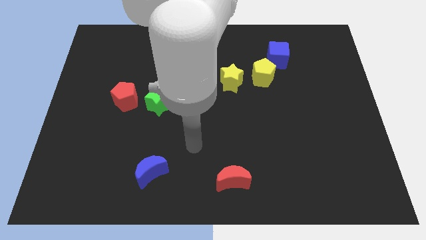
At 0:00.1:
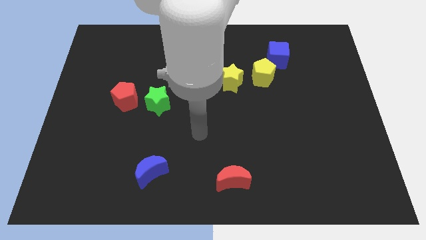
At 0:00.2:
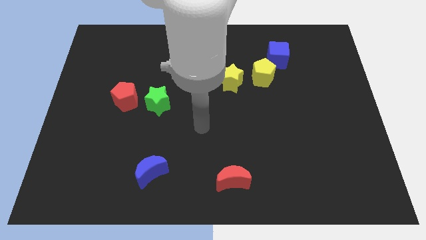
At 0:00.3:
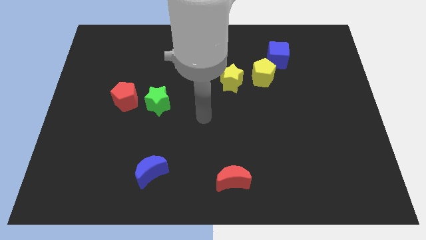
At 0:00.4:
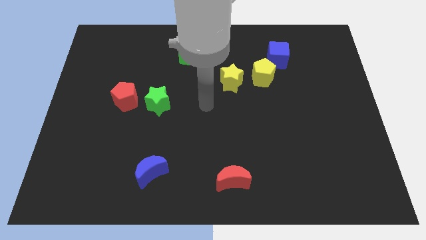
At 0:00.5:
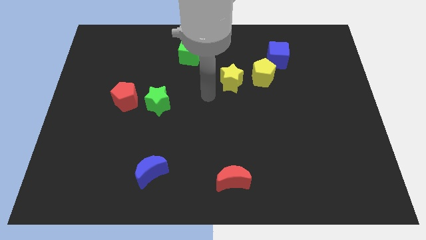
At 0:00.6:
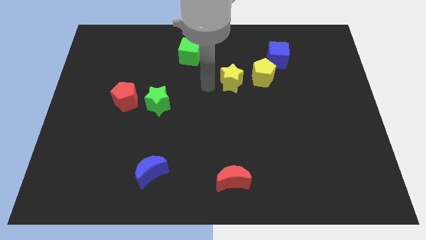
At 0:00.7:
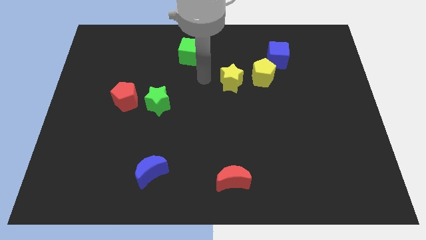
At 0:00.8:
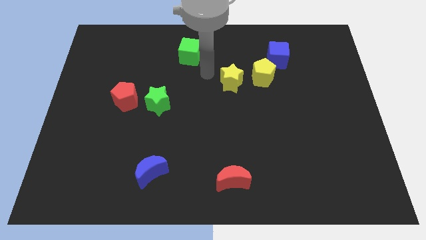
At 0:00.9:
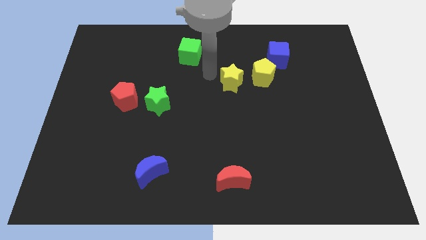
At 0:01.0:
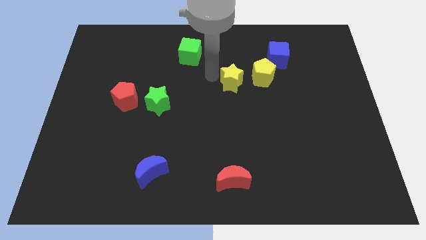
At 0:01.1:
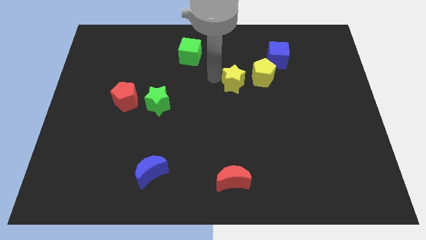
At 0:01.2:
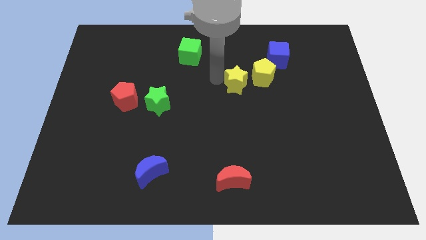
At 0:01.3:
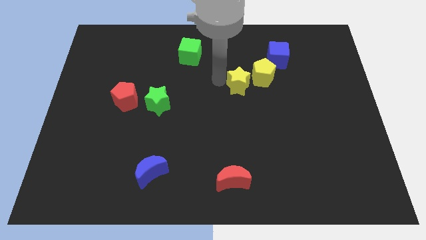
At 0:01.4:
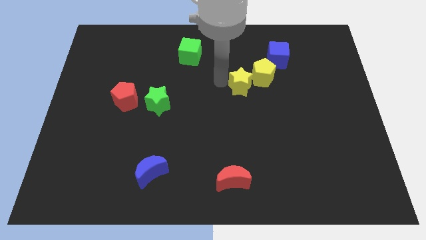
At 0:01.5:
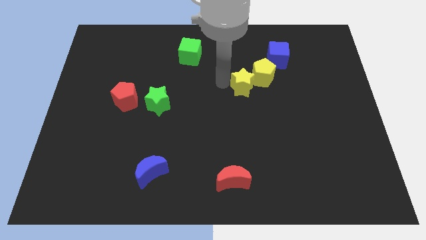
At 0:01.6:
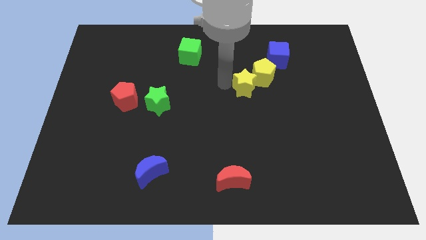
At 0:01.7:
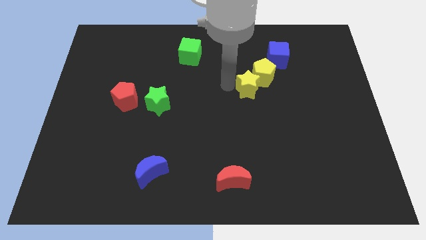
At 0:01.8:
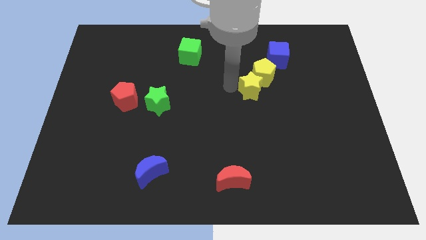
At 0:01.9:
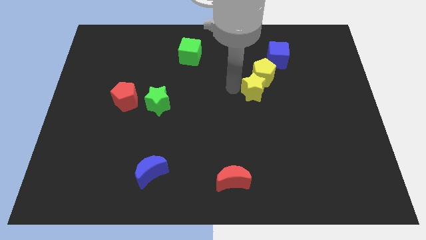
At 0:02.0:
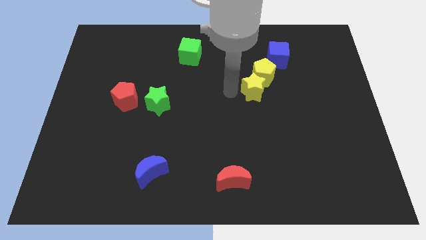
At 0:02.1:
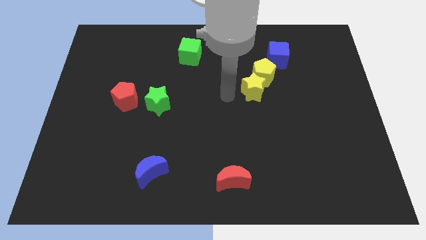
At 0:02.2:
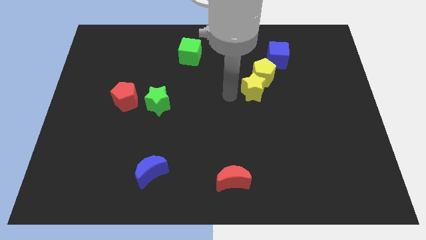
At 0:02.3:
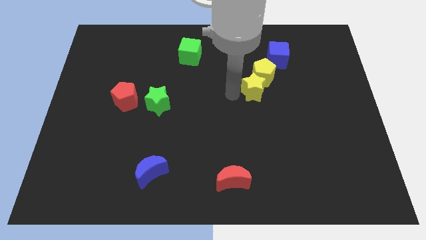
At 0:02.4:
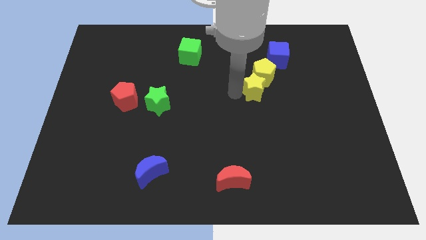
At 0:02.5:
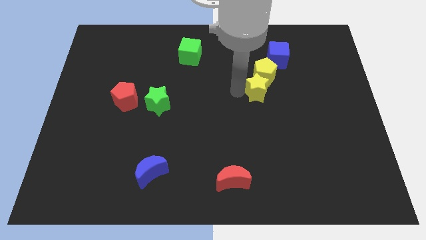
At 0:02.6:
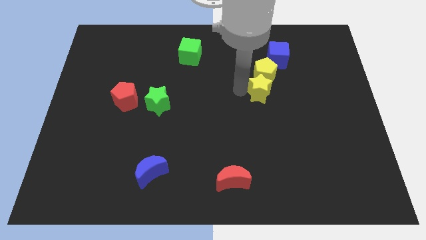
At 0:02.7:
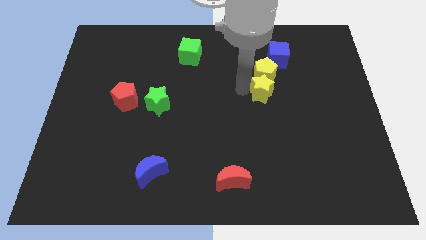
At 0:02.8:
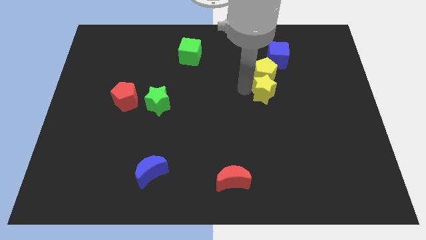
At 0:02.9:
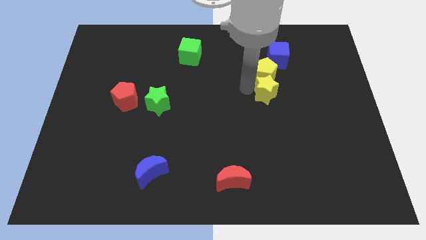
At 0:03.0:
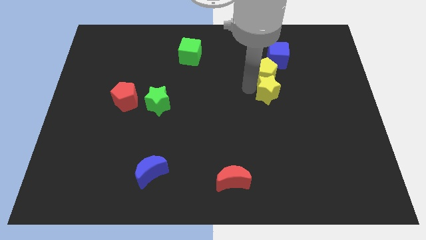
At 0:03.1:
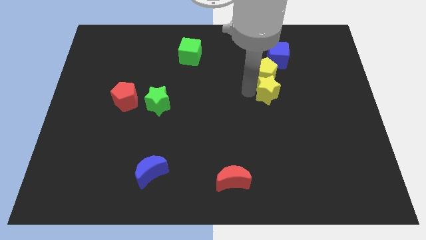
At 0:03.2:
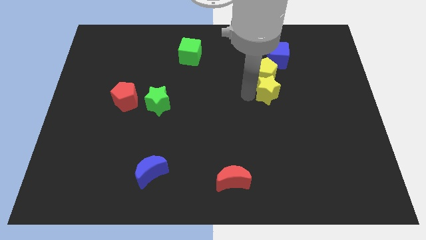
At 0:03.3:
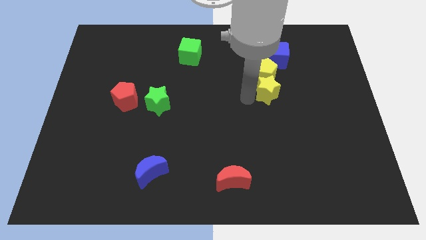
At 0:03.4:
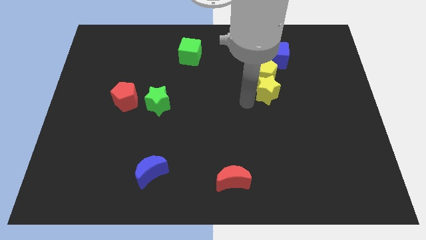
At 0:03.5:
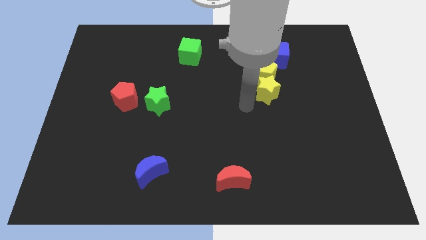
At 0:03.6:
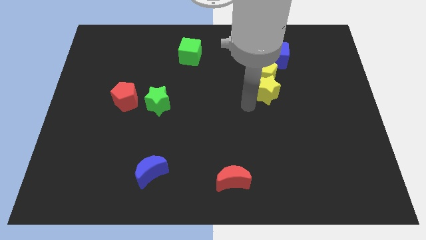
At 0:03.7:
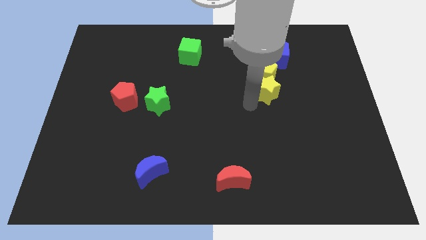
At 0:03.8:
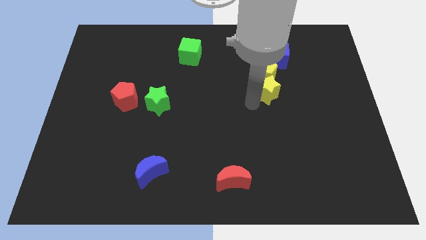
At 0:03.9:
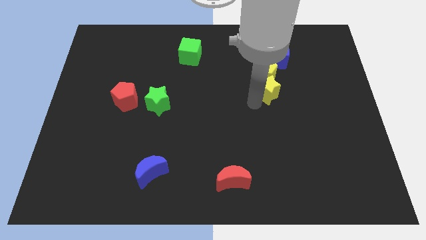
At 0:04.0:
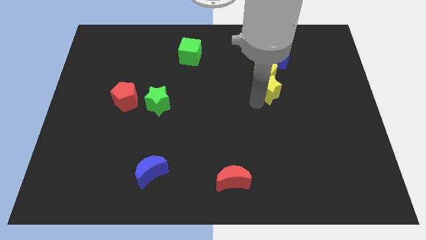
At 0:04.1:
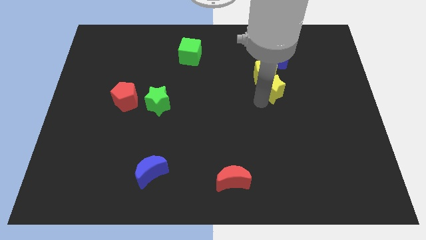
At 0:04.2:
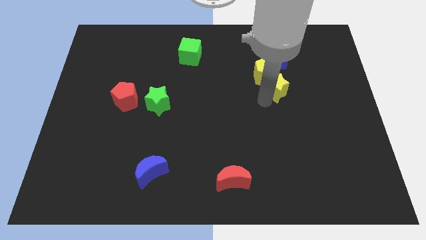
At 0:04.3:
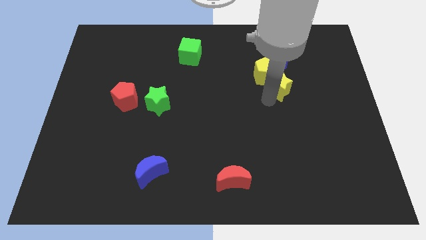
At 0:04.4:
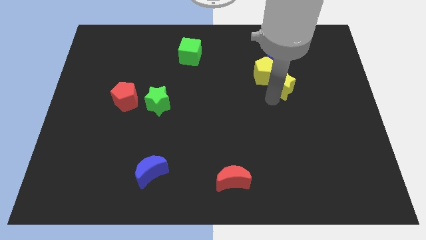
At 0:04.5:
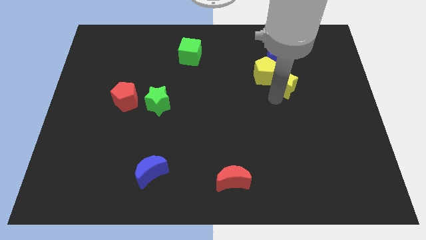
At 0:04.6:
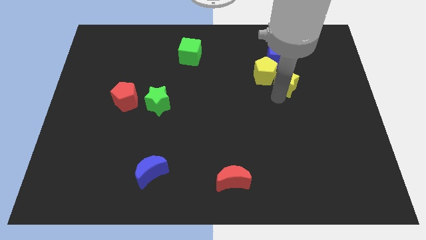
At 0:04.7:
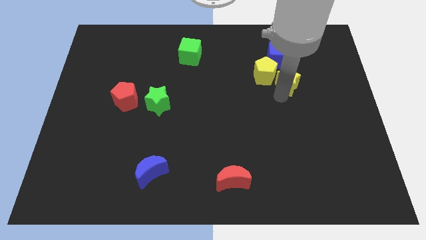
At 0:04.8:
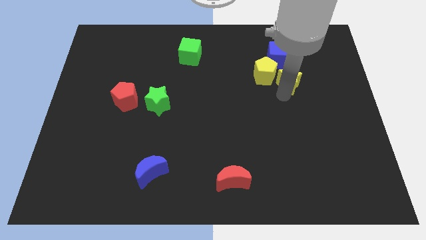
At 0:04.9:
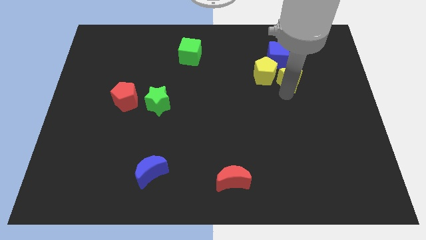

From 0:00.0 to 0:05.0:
move the yellow star to the bottom right side of the blue cube

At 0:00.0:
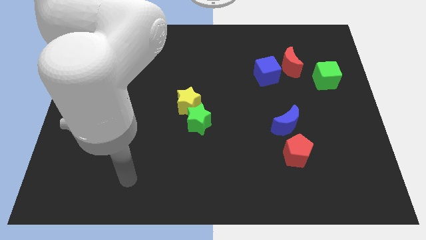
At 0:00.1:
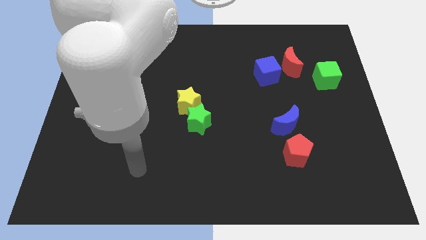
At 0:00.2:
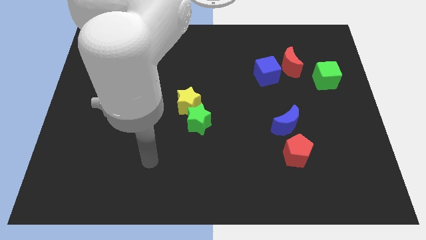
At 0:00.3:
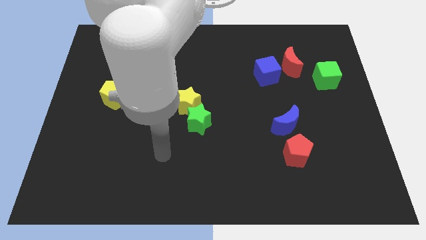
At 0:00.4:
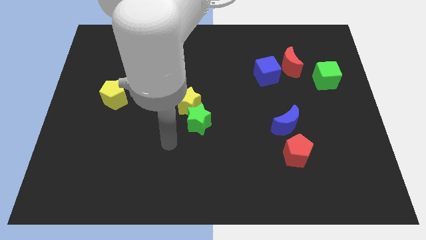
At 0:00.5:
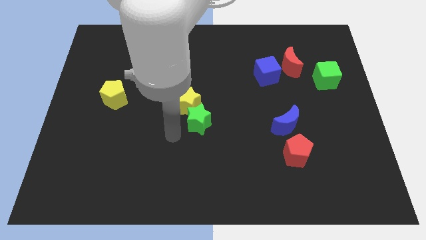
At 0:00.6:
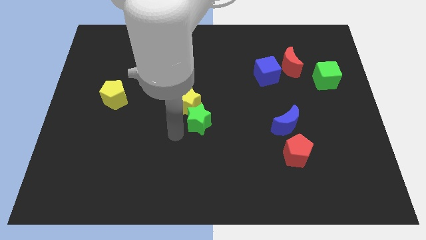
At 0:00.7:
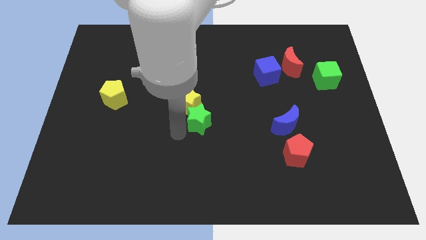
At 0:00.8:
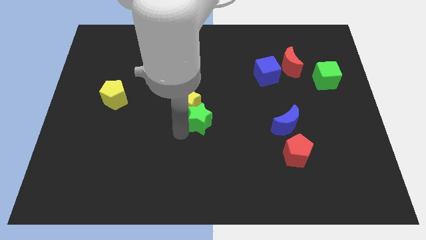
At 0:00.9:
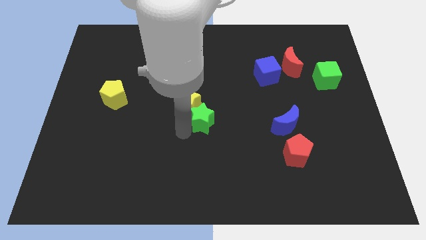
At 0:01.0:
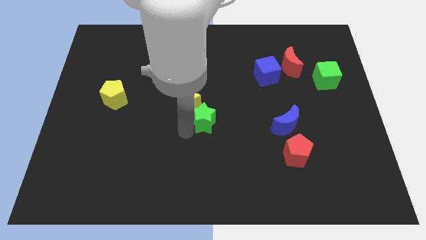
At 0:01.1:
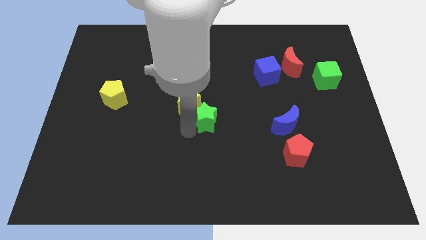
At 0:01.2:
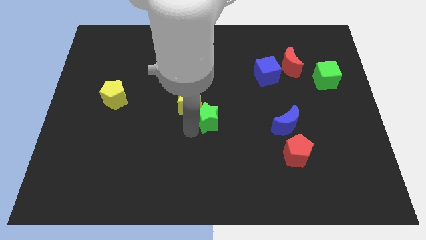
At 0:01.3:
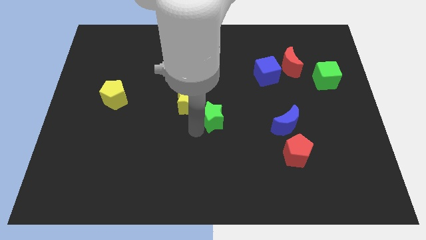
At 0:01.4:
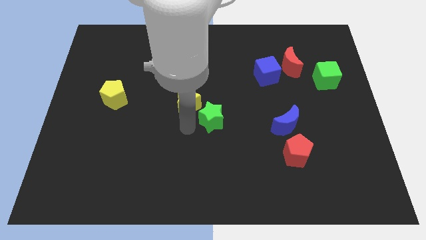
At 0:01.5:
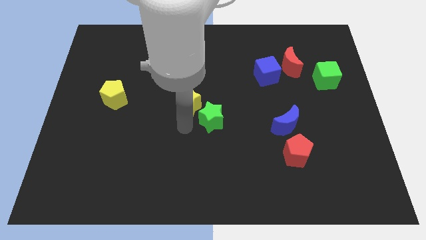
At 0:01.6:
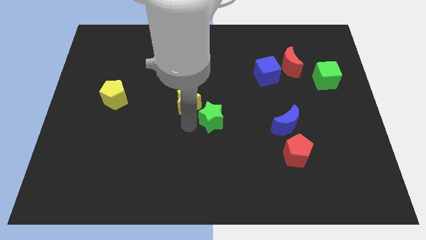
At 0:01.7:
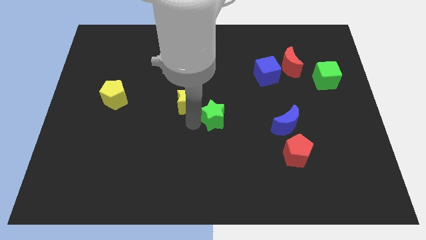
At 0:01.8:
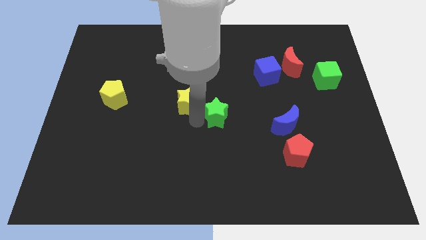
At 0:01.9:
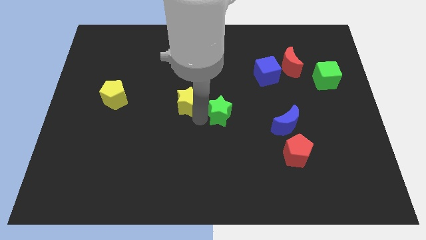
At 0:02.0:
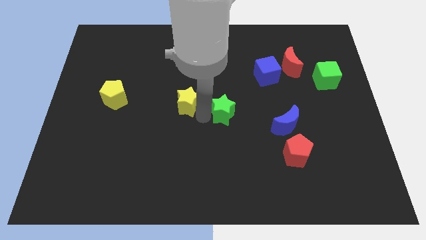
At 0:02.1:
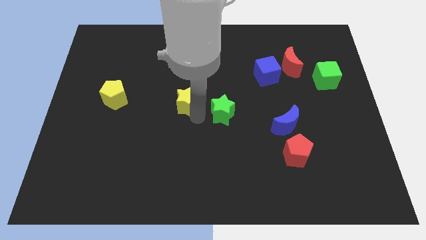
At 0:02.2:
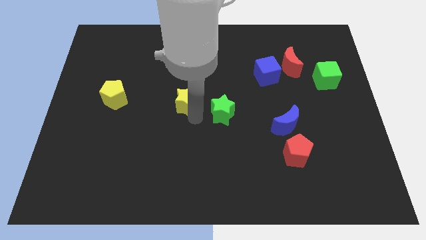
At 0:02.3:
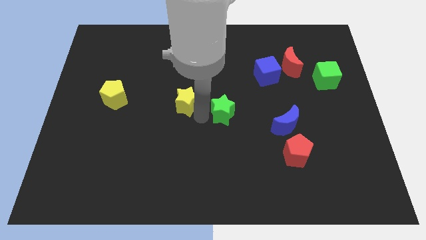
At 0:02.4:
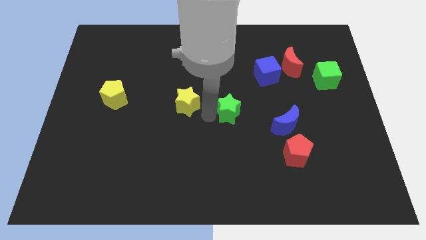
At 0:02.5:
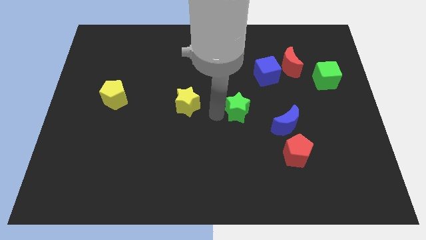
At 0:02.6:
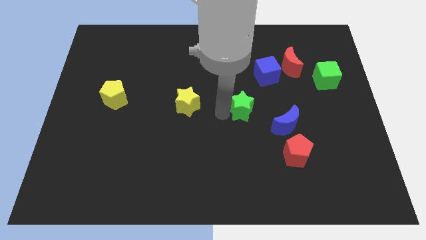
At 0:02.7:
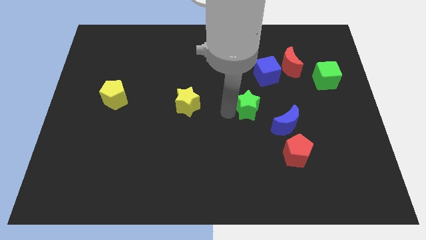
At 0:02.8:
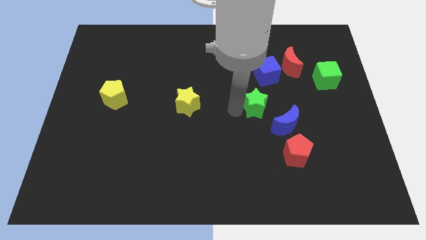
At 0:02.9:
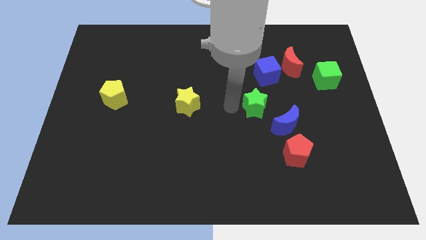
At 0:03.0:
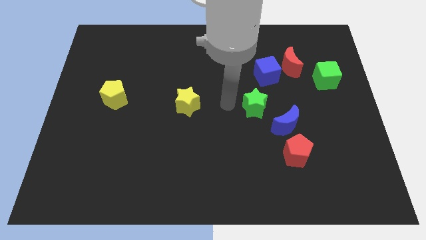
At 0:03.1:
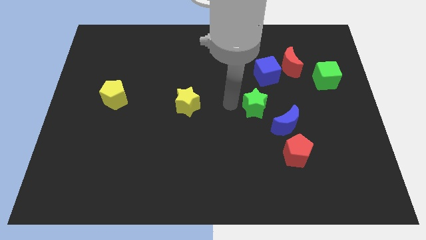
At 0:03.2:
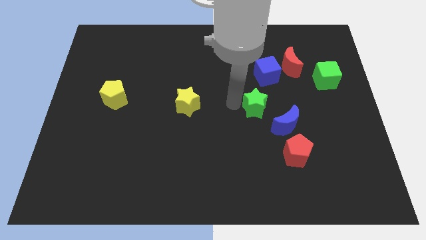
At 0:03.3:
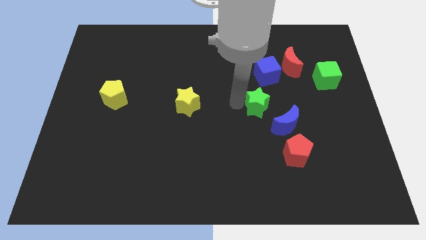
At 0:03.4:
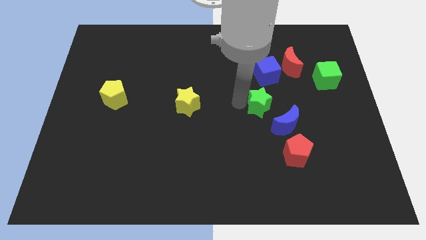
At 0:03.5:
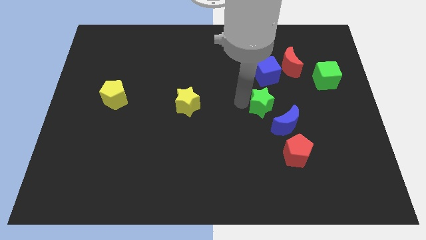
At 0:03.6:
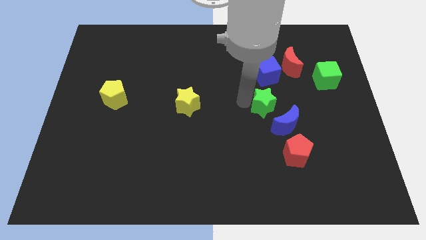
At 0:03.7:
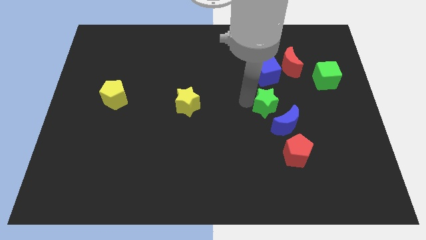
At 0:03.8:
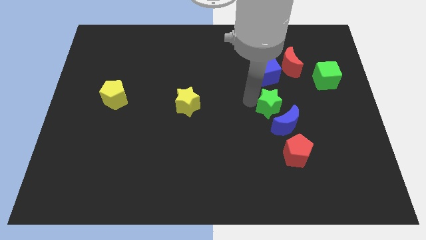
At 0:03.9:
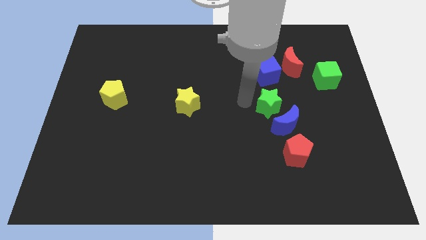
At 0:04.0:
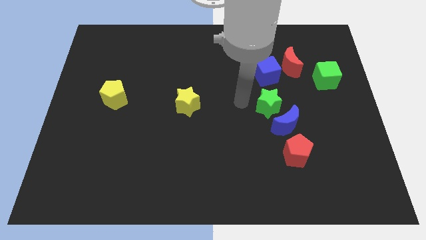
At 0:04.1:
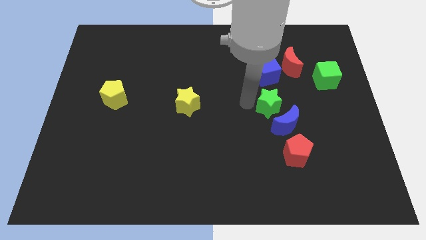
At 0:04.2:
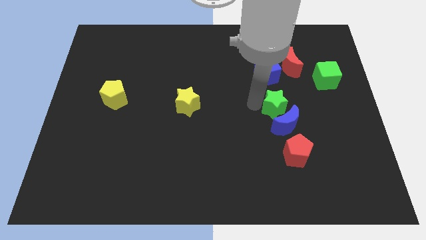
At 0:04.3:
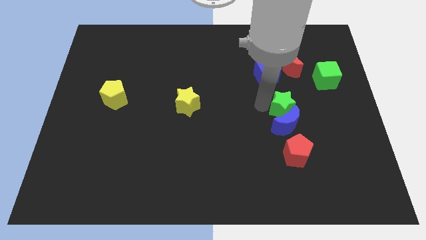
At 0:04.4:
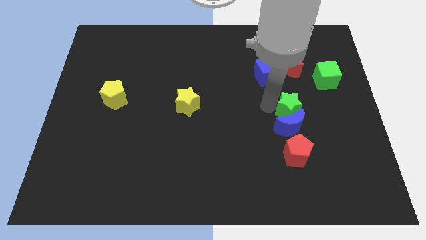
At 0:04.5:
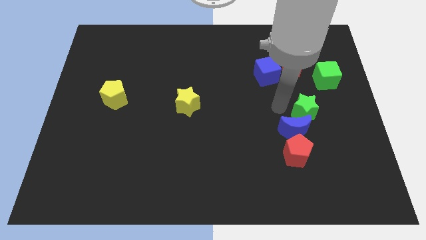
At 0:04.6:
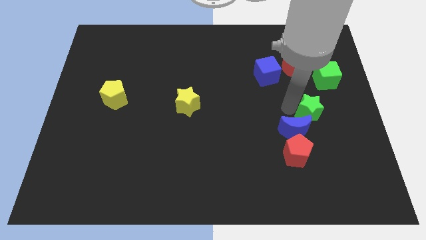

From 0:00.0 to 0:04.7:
push the green star to the right of the blue moon
